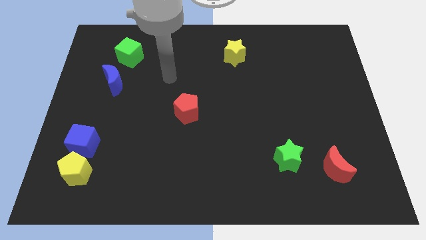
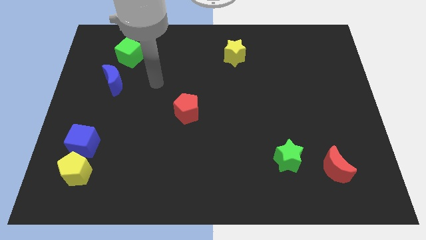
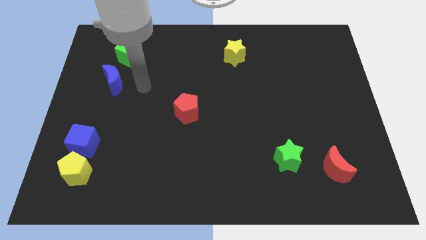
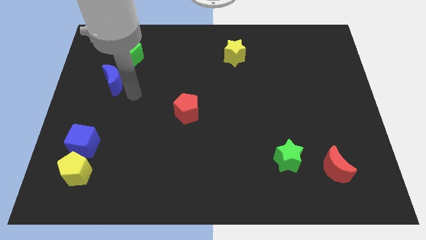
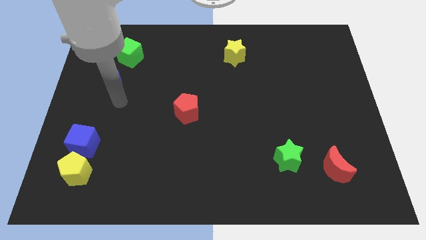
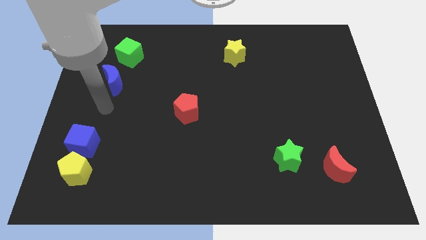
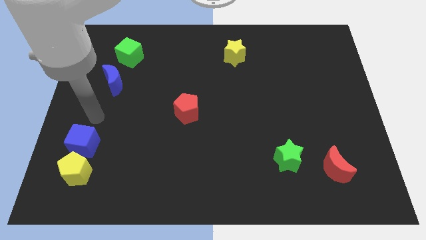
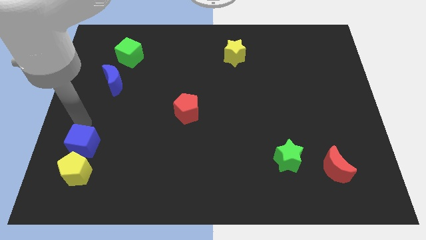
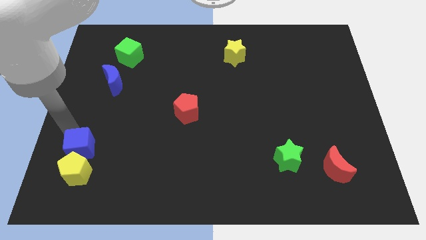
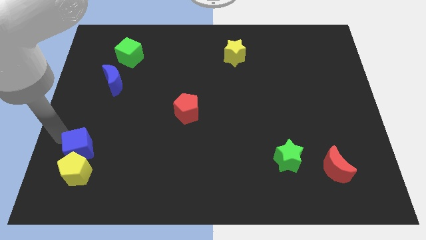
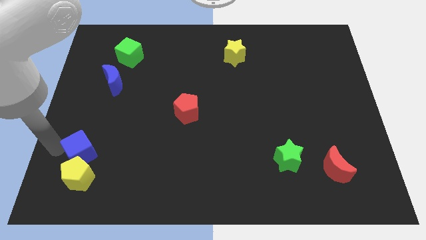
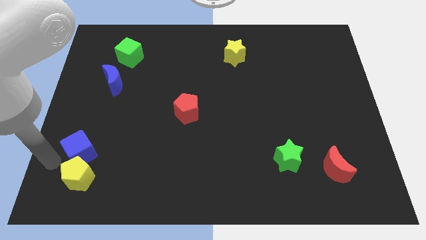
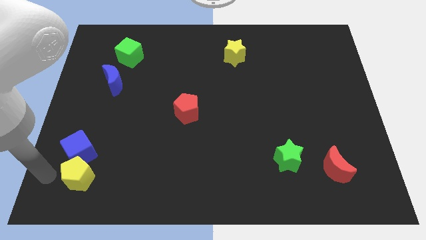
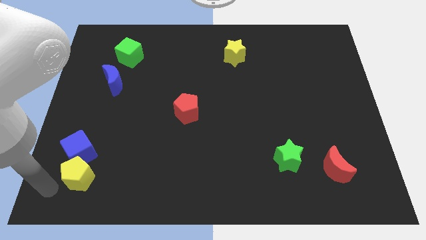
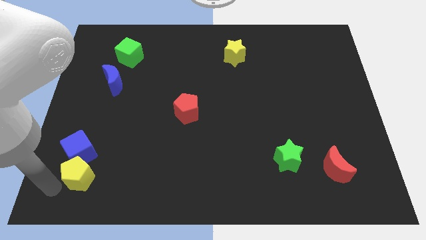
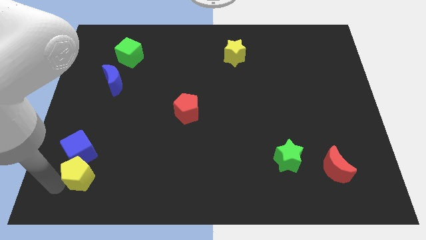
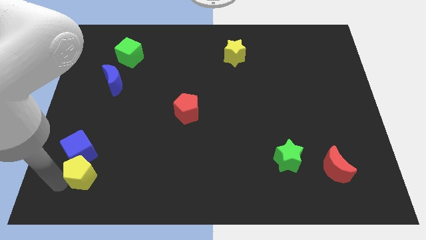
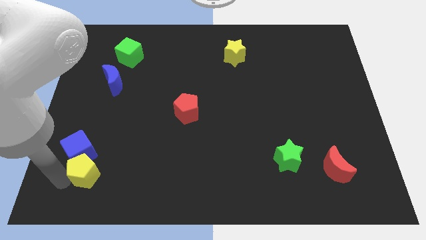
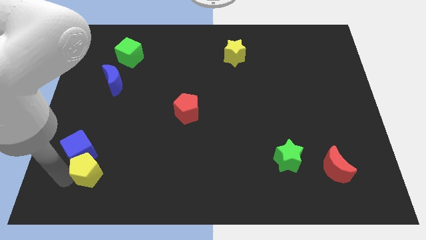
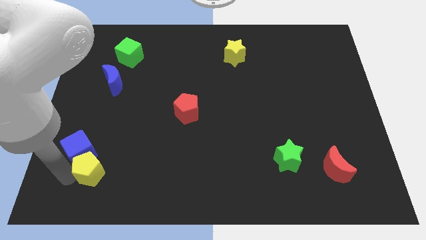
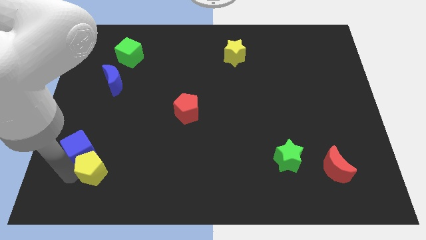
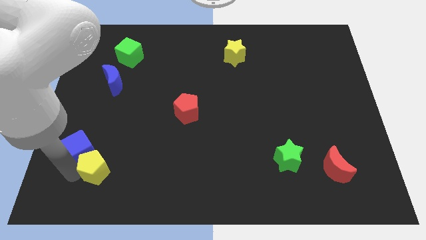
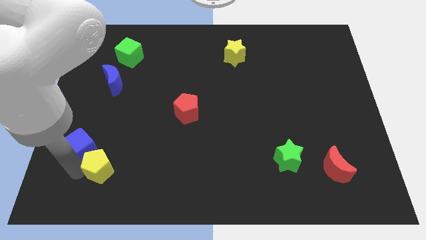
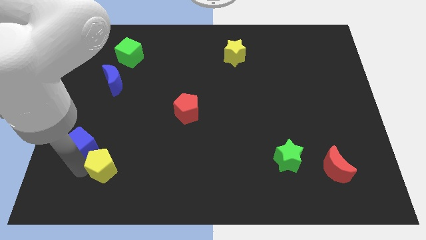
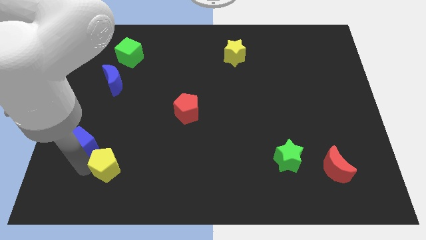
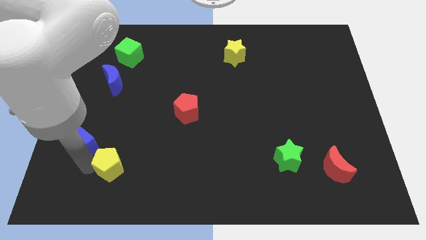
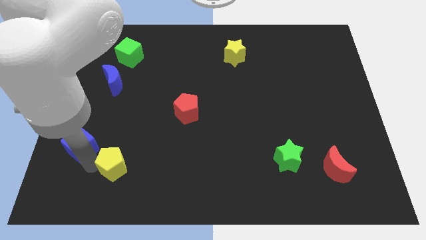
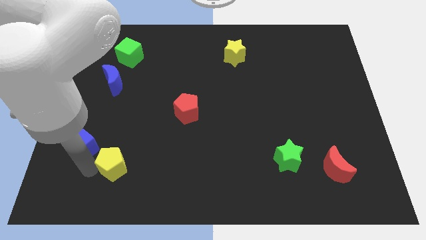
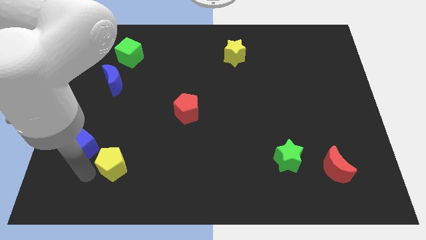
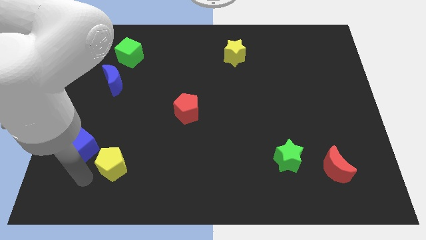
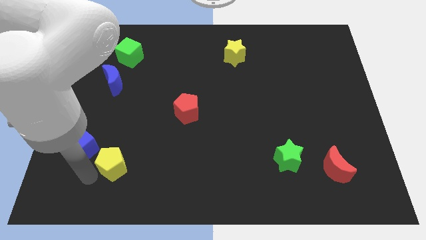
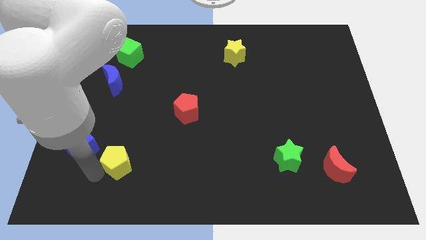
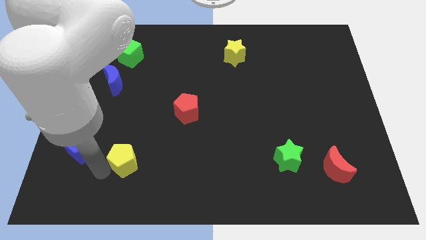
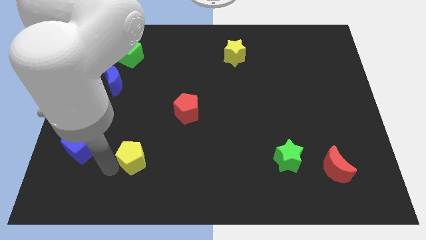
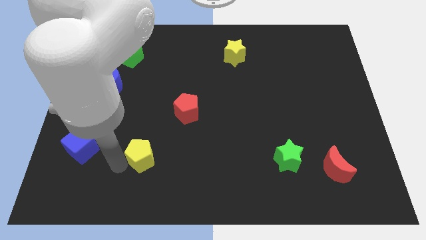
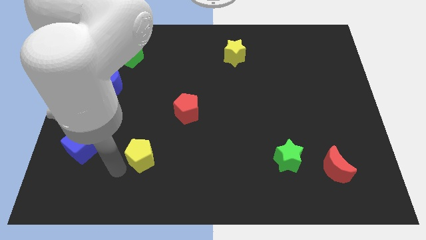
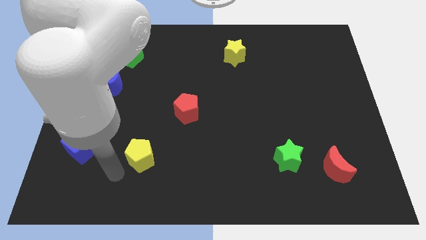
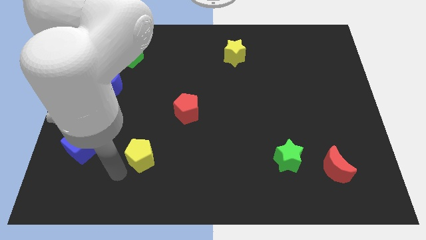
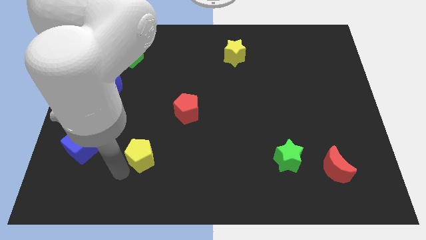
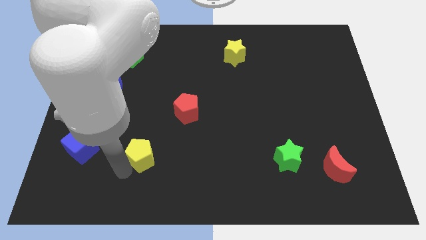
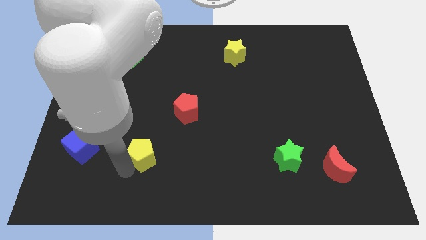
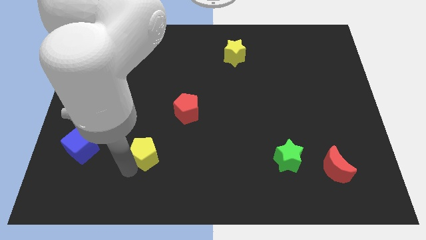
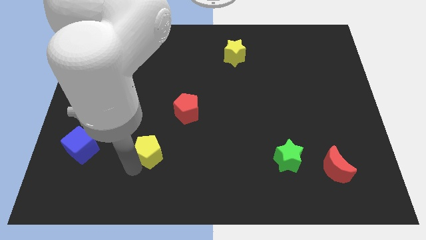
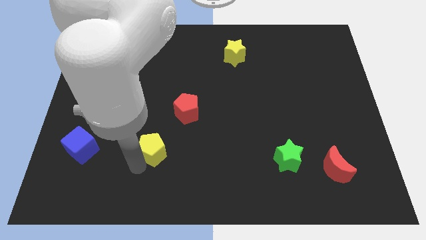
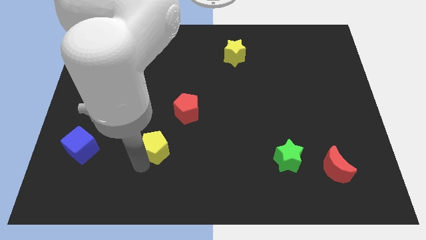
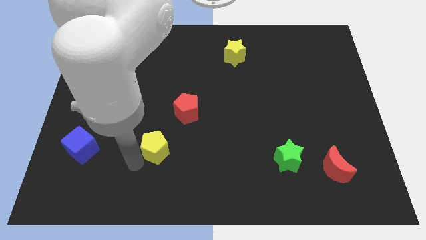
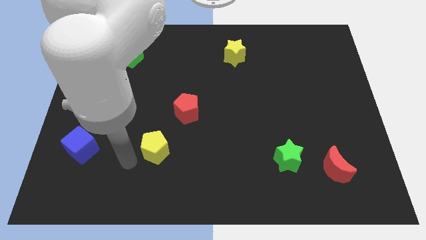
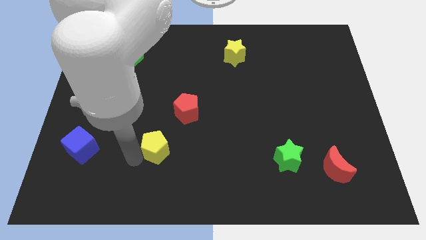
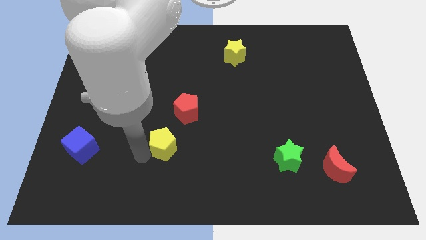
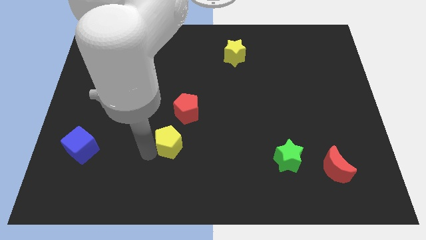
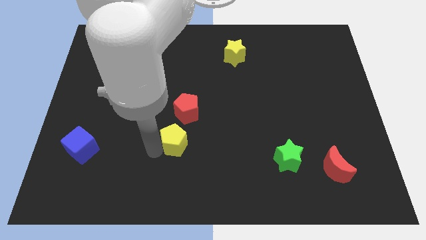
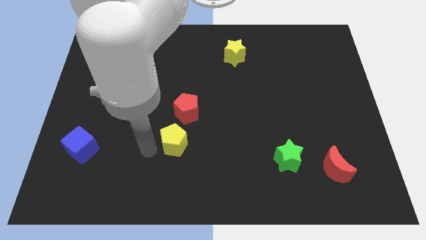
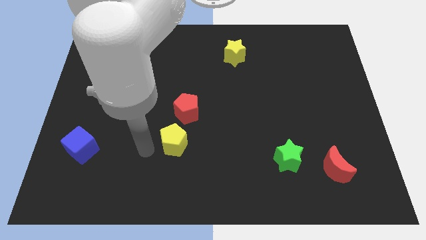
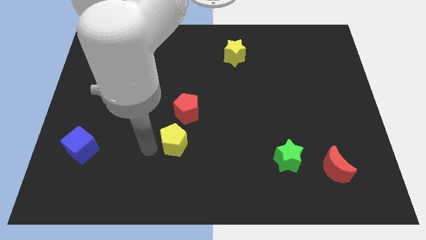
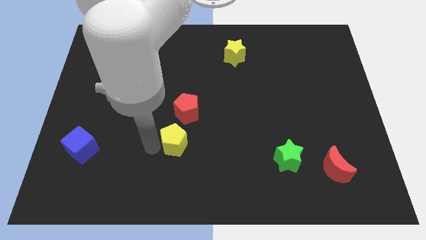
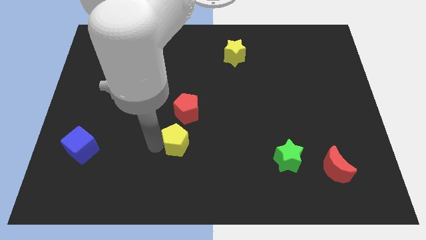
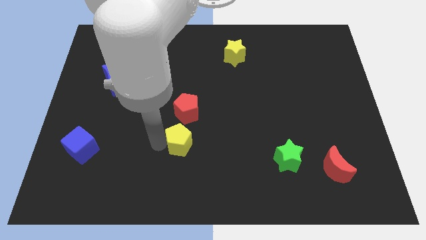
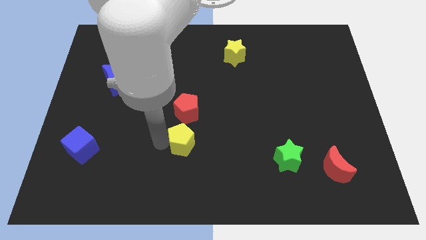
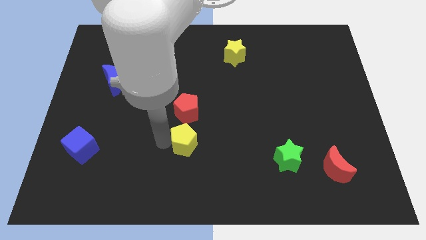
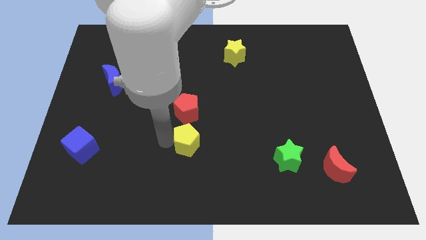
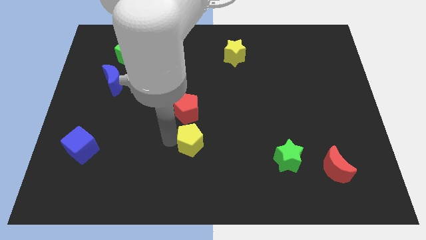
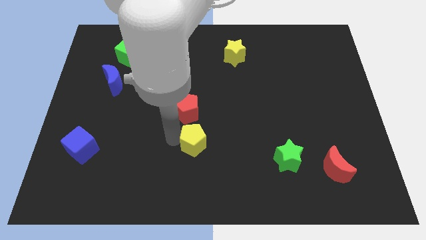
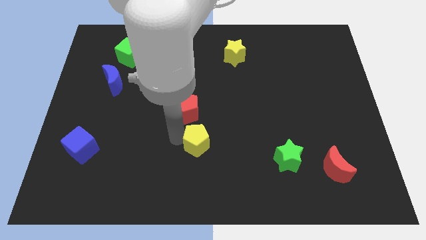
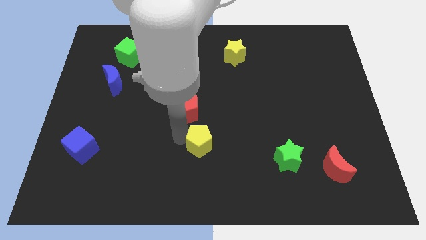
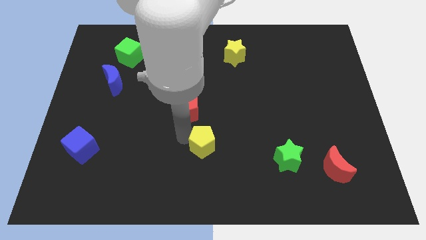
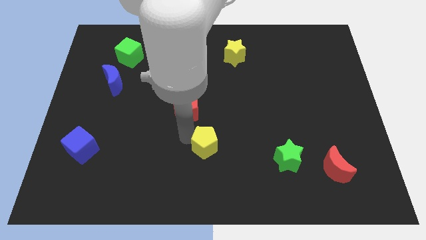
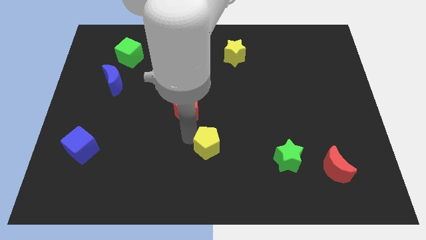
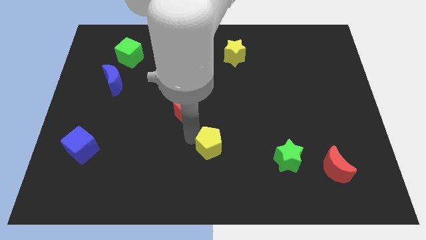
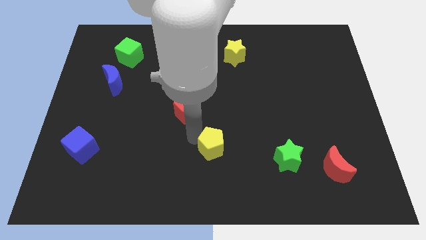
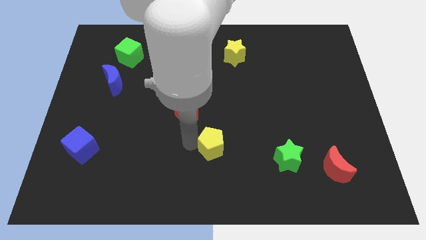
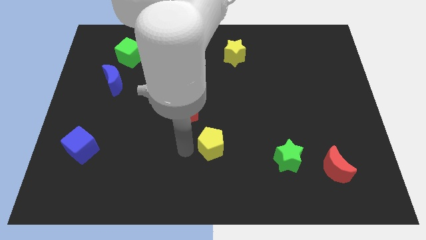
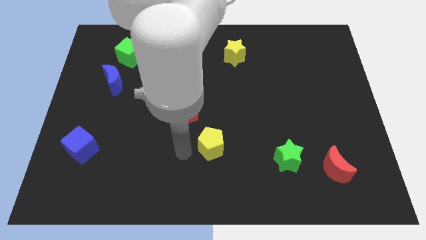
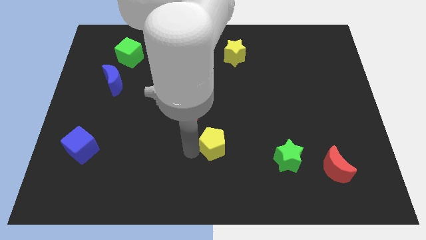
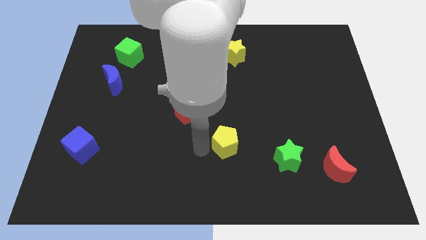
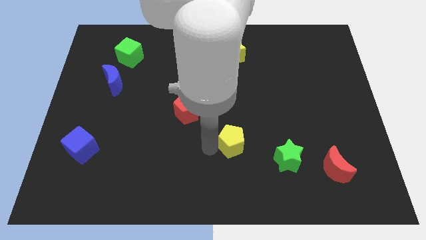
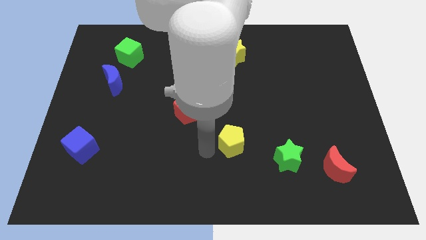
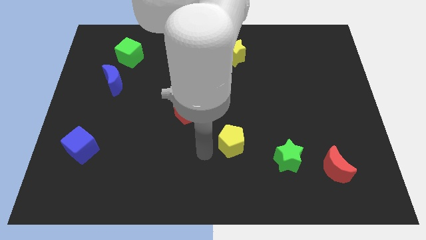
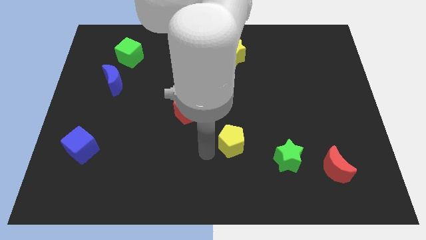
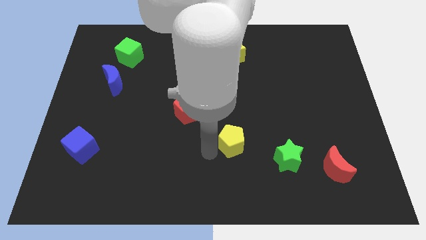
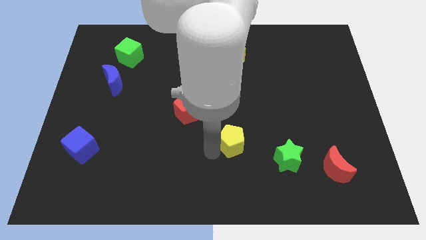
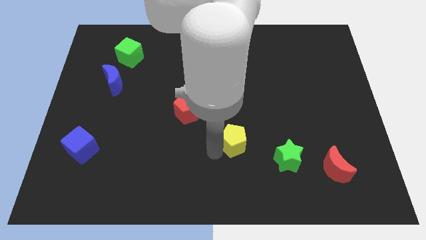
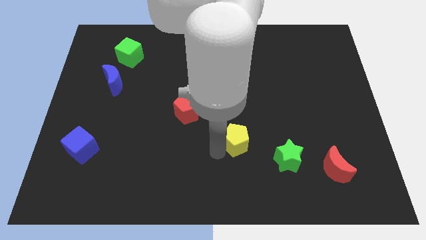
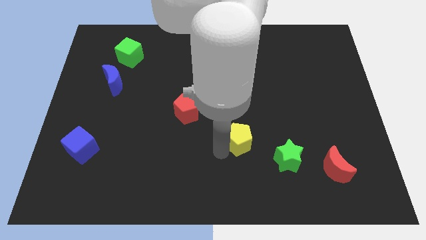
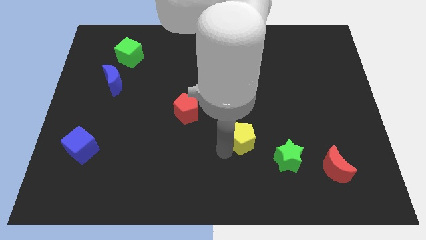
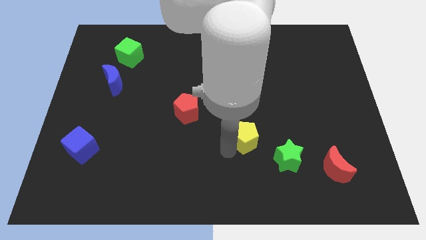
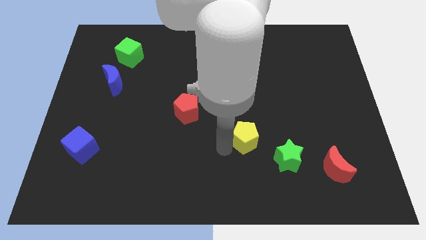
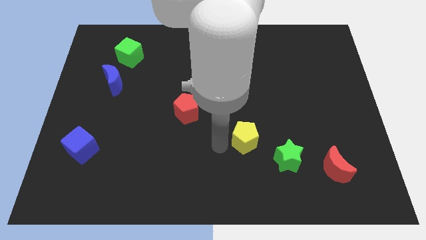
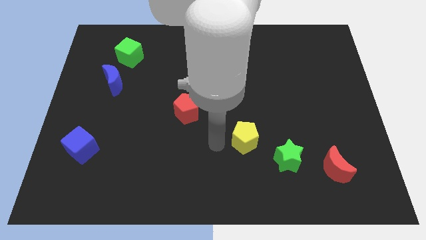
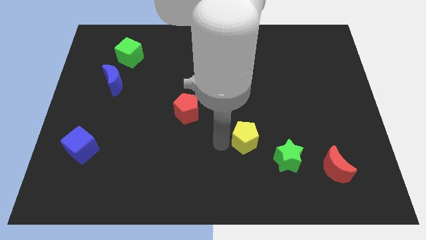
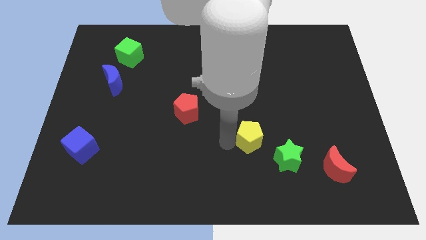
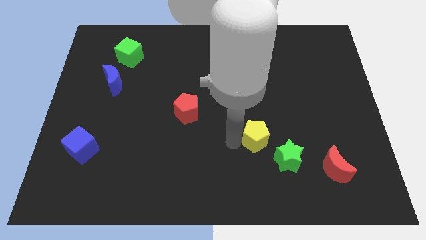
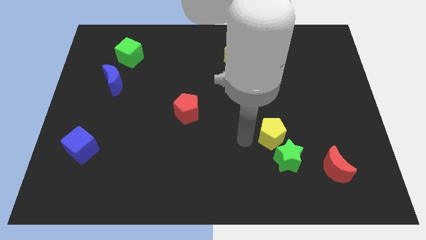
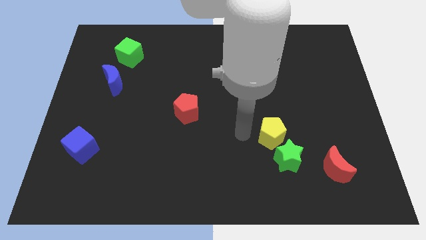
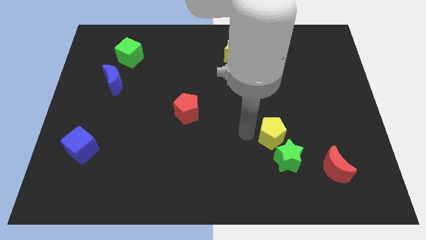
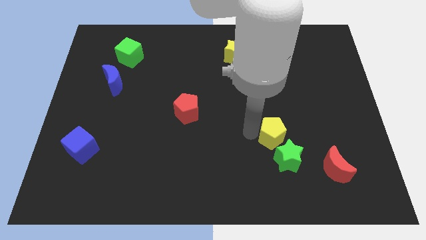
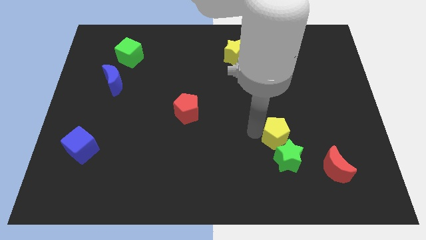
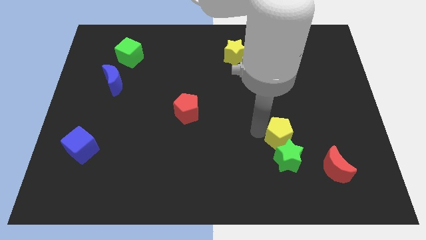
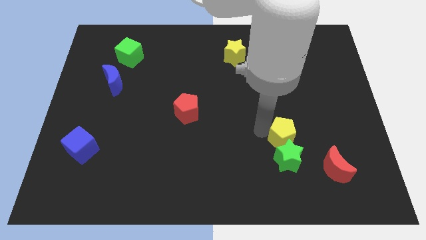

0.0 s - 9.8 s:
slide the yellow pentagon to the top right side of the green star
